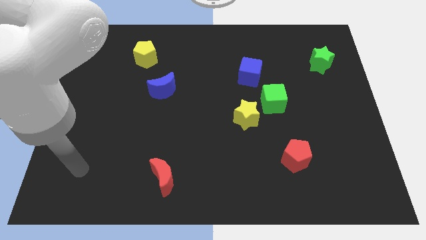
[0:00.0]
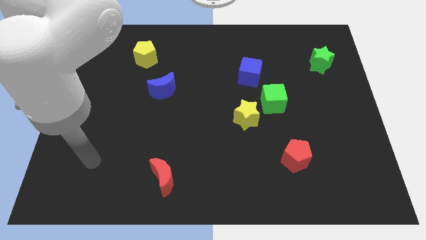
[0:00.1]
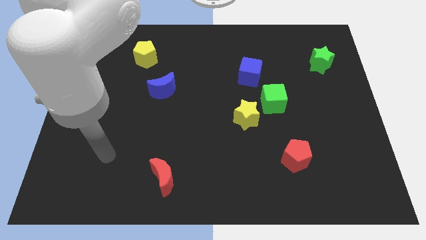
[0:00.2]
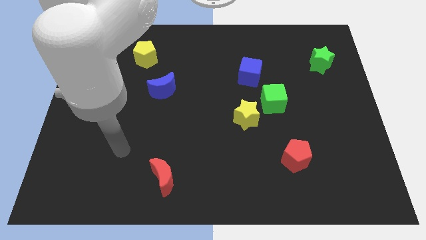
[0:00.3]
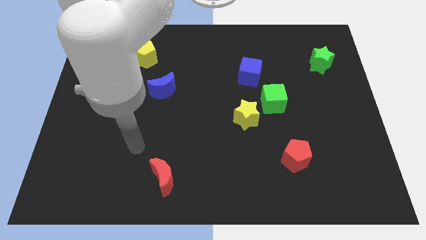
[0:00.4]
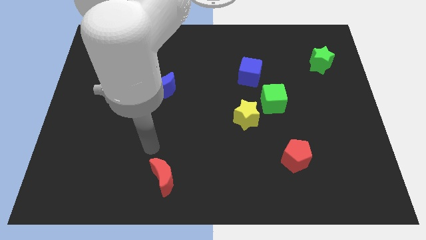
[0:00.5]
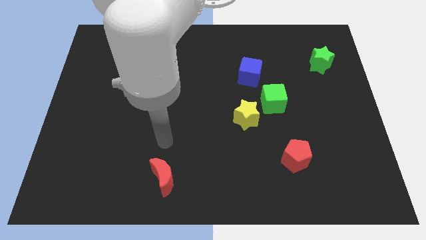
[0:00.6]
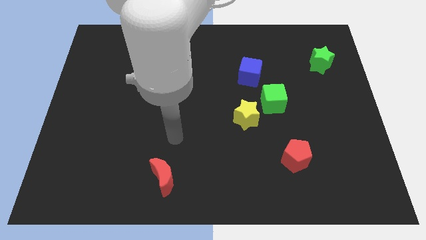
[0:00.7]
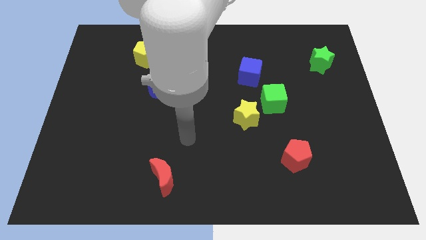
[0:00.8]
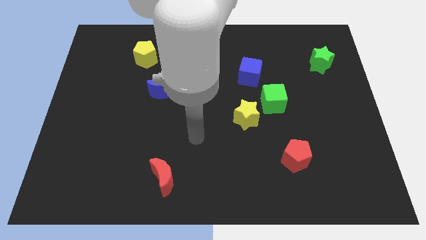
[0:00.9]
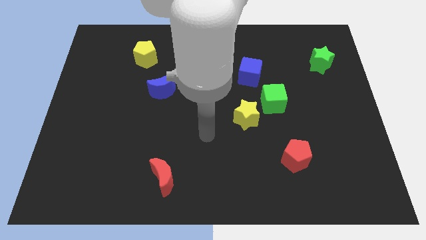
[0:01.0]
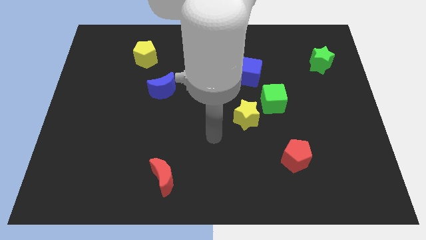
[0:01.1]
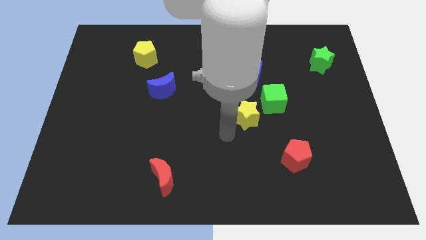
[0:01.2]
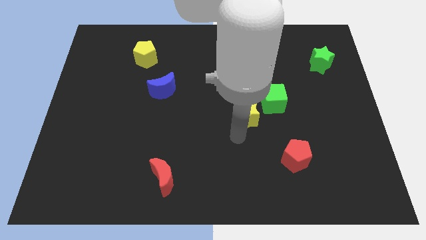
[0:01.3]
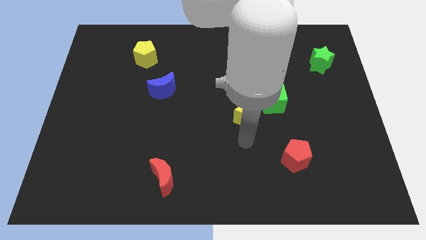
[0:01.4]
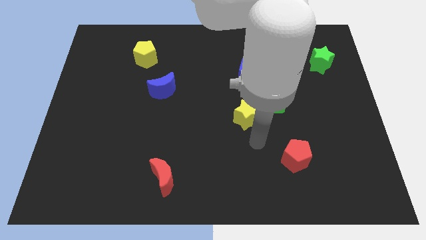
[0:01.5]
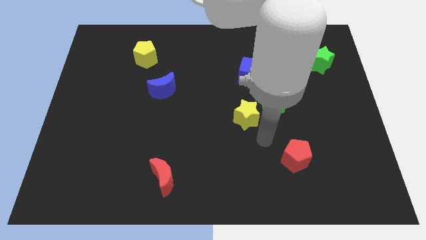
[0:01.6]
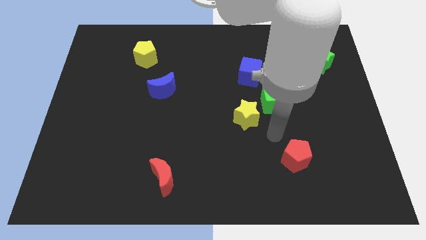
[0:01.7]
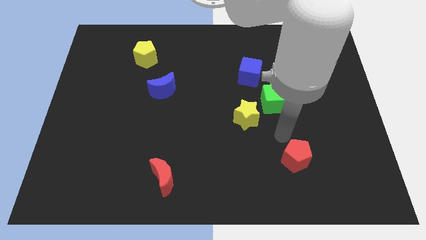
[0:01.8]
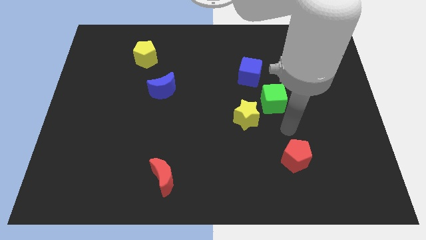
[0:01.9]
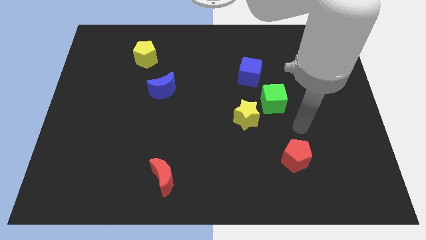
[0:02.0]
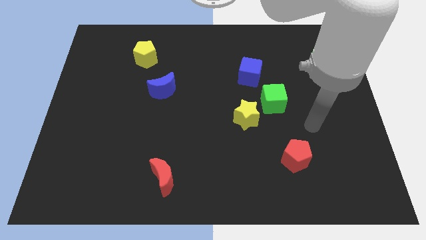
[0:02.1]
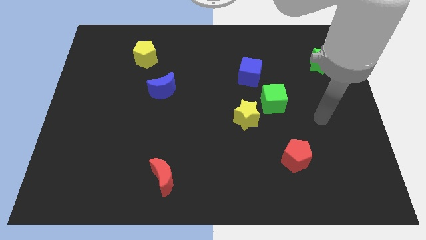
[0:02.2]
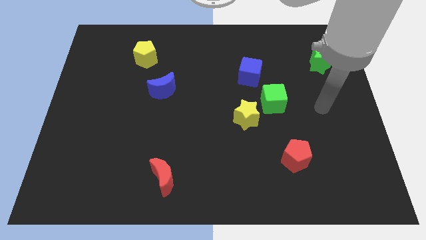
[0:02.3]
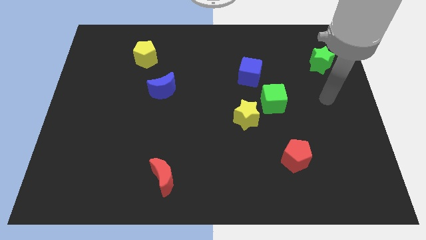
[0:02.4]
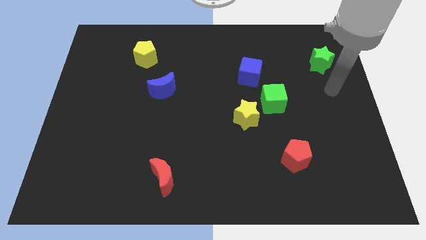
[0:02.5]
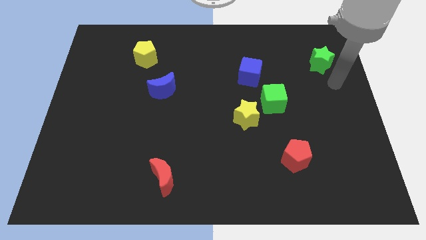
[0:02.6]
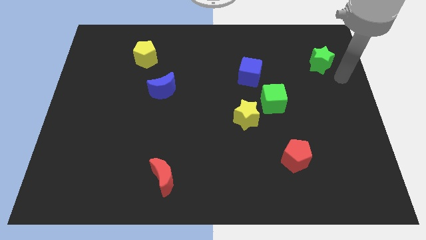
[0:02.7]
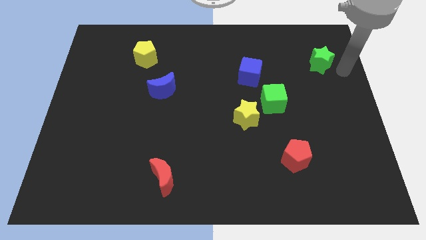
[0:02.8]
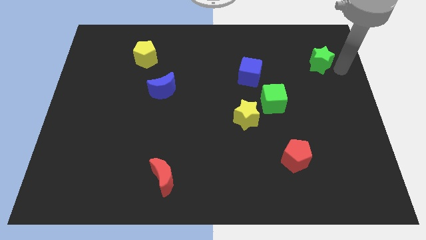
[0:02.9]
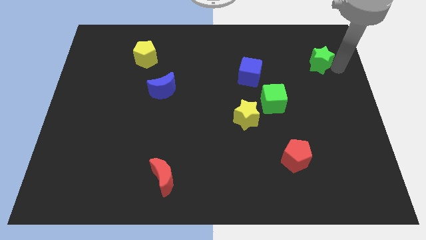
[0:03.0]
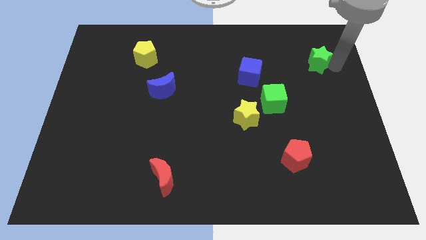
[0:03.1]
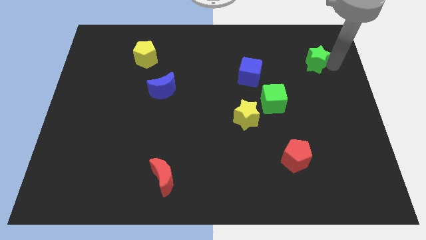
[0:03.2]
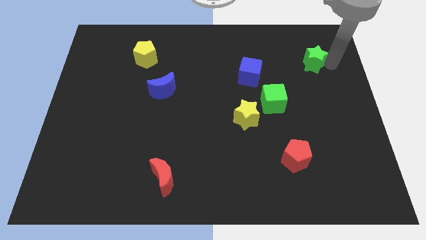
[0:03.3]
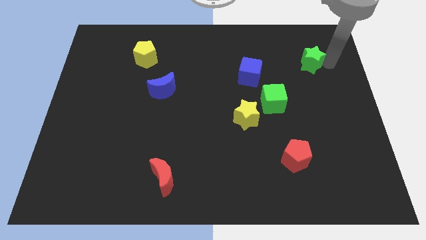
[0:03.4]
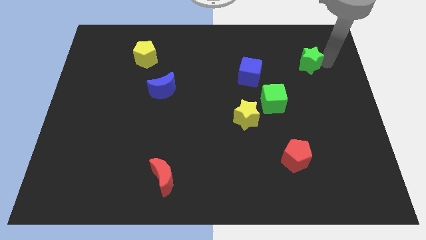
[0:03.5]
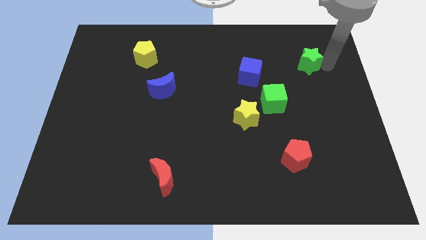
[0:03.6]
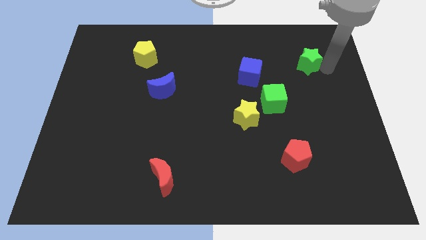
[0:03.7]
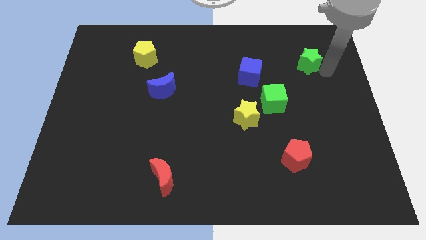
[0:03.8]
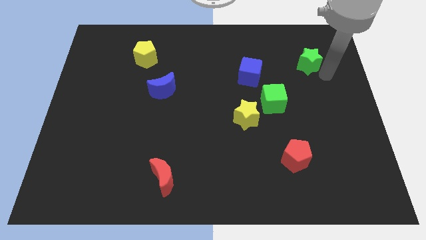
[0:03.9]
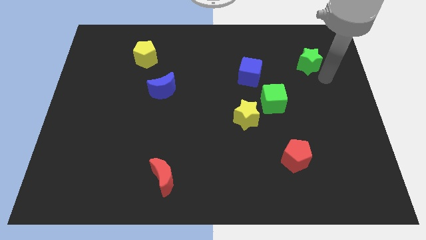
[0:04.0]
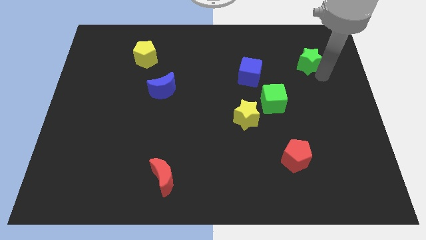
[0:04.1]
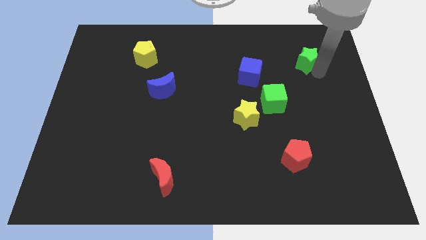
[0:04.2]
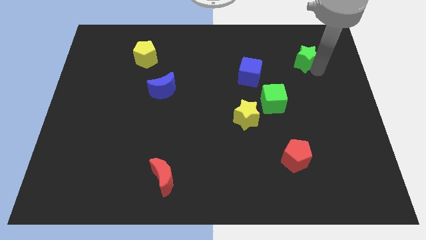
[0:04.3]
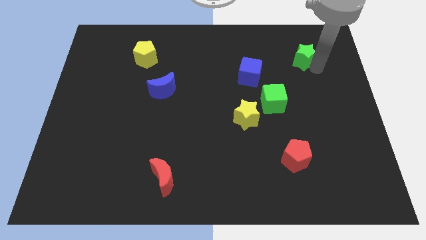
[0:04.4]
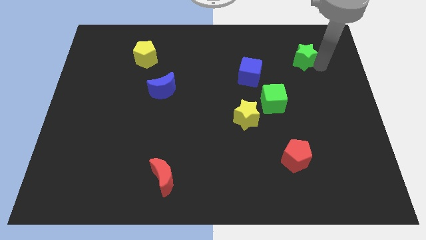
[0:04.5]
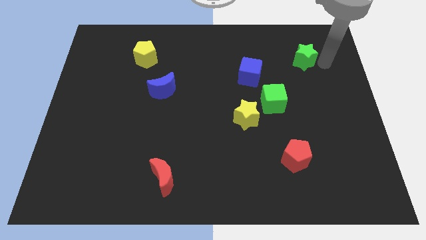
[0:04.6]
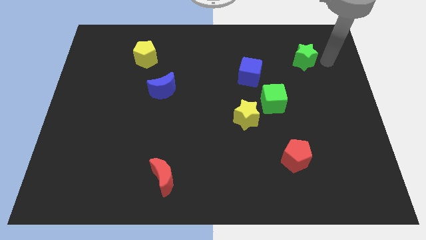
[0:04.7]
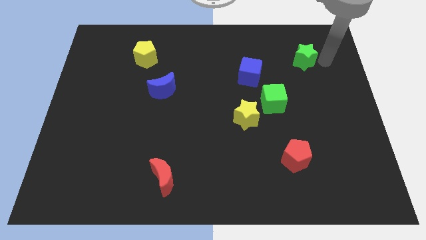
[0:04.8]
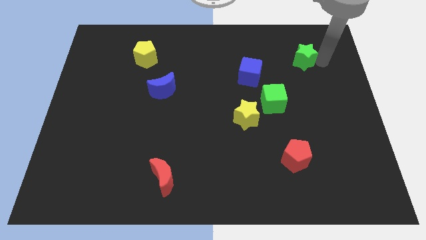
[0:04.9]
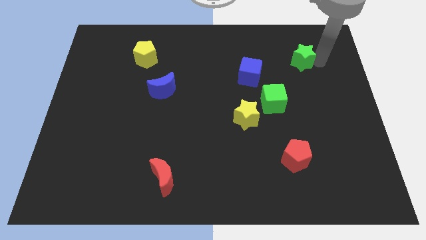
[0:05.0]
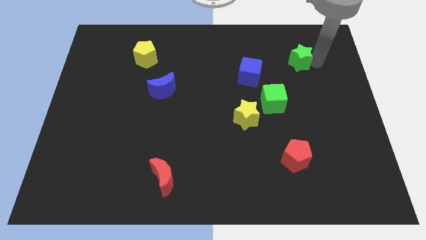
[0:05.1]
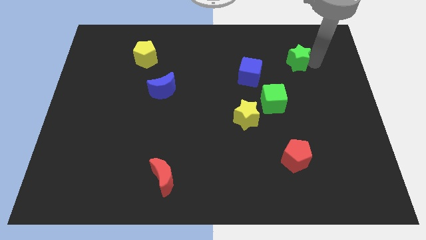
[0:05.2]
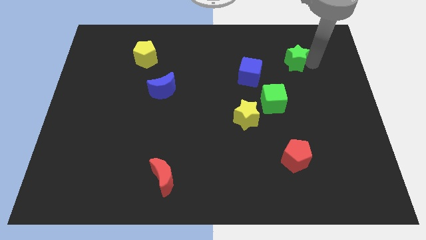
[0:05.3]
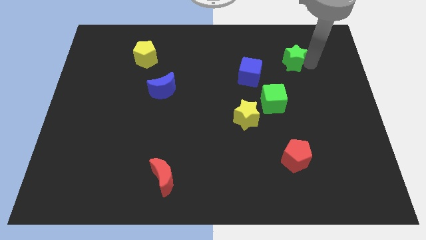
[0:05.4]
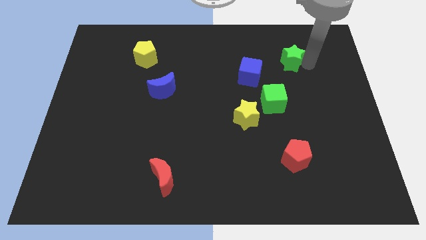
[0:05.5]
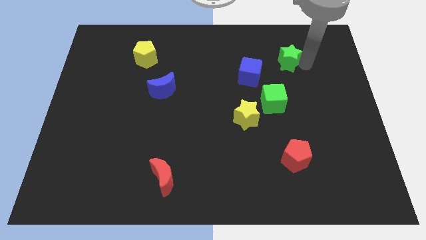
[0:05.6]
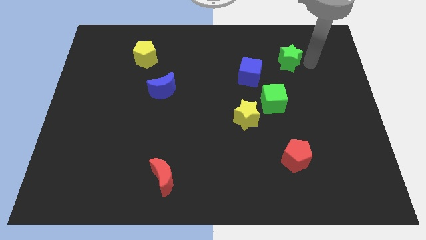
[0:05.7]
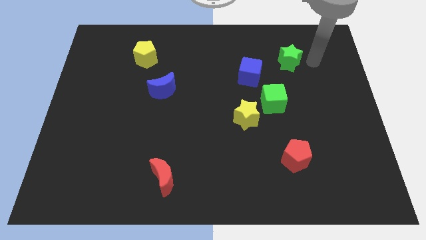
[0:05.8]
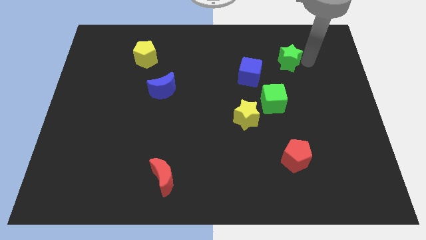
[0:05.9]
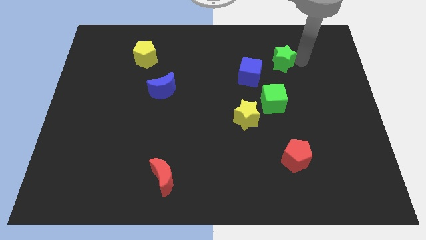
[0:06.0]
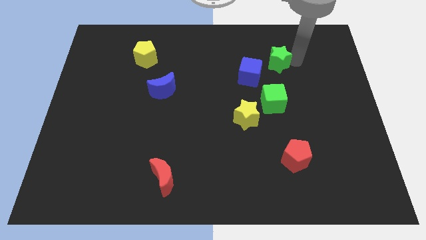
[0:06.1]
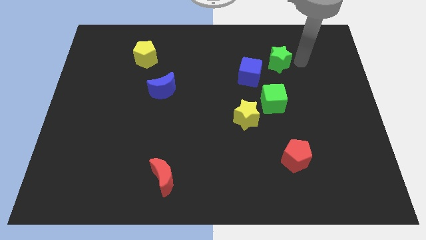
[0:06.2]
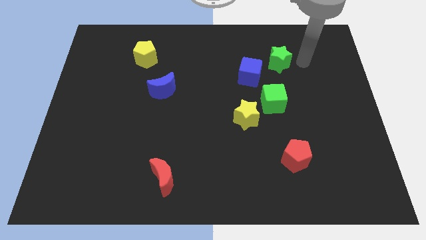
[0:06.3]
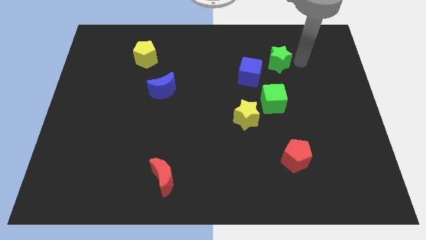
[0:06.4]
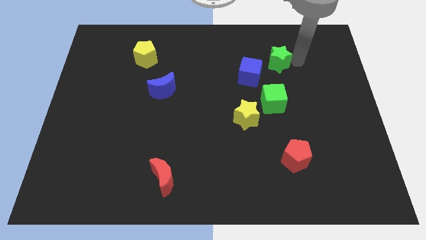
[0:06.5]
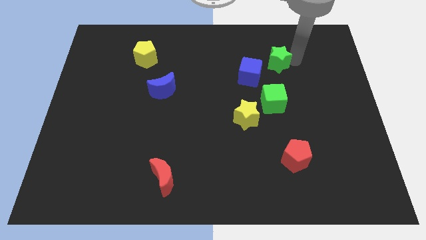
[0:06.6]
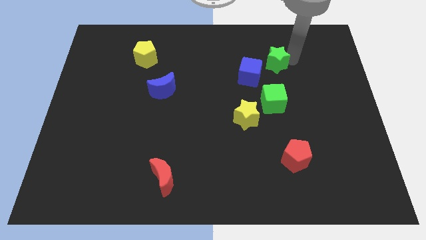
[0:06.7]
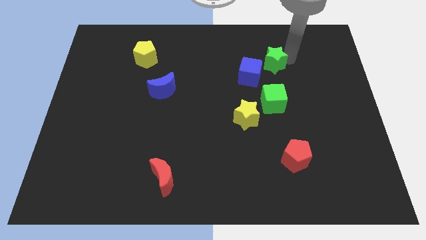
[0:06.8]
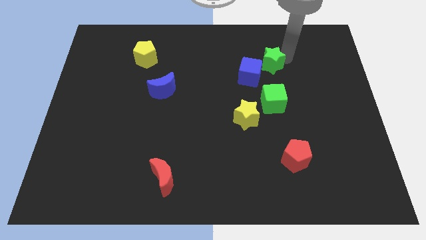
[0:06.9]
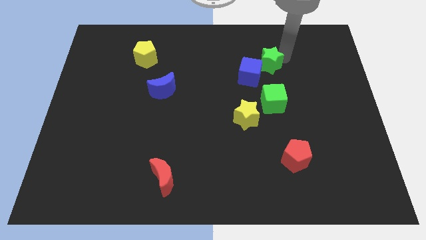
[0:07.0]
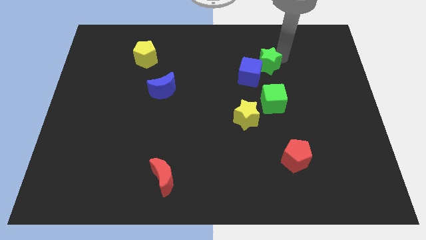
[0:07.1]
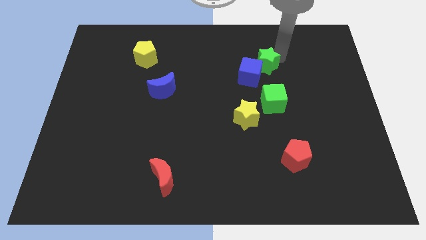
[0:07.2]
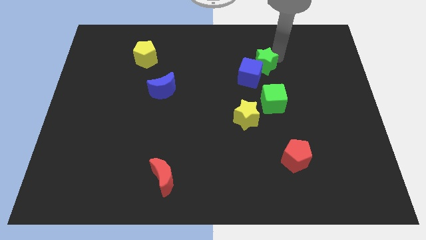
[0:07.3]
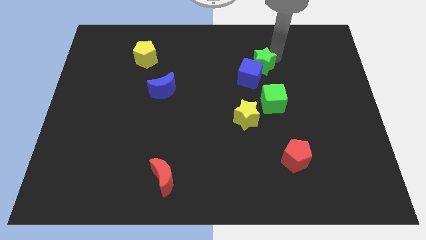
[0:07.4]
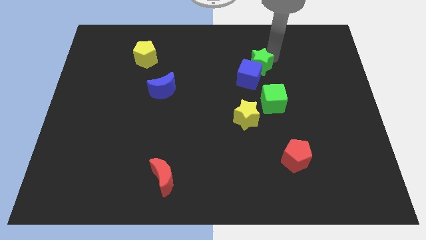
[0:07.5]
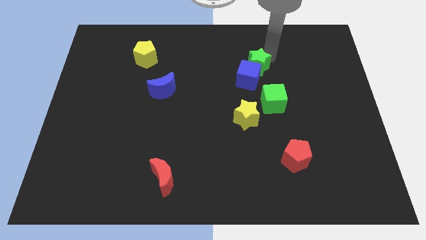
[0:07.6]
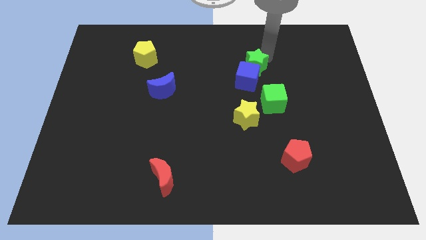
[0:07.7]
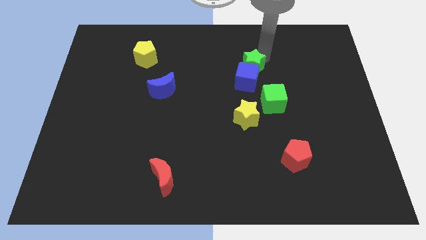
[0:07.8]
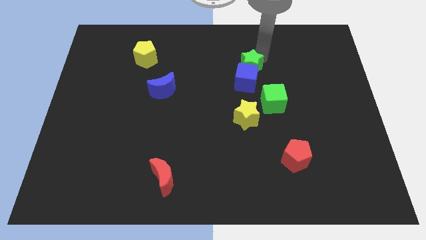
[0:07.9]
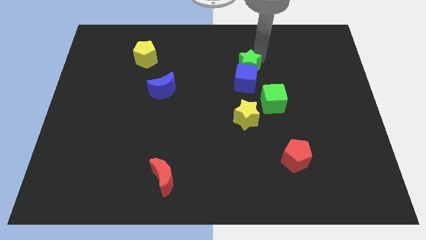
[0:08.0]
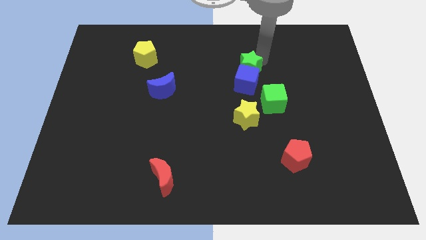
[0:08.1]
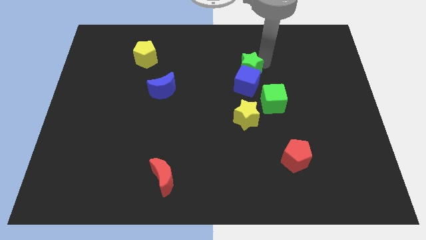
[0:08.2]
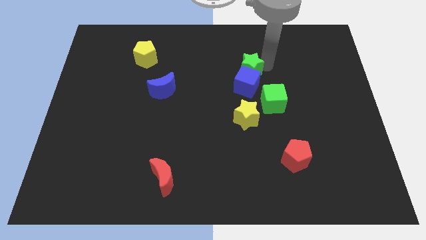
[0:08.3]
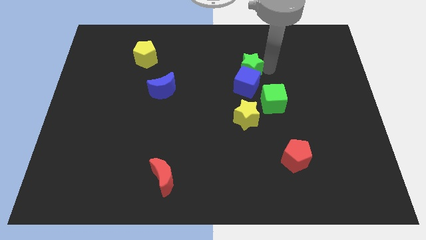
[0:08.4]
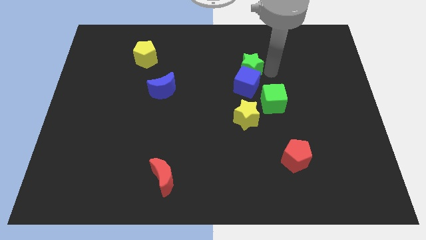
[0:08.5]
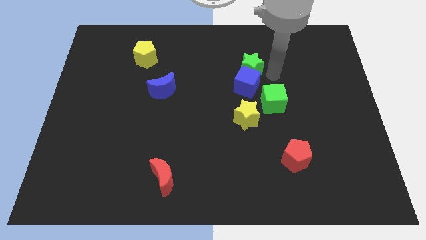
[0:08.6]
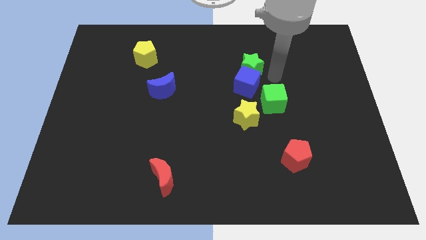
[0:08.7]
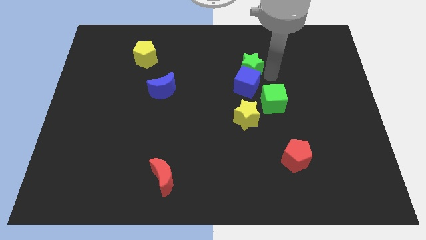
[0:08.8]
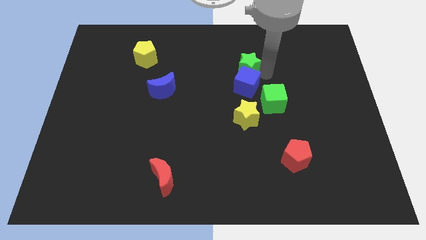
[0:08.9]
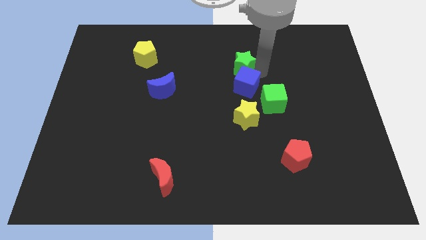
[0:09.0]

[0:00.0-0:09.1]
push the green star left
